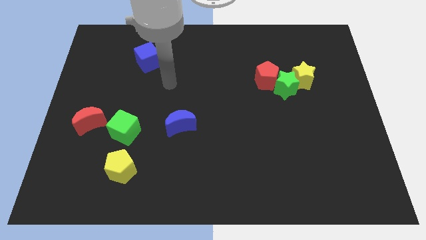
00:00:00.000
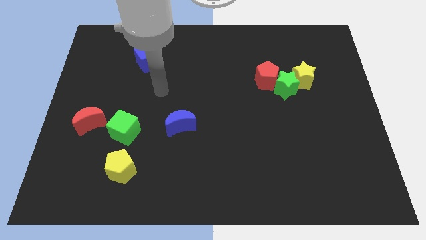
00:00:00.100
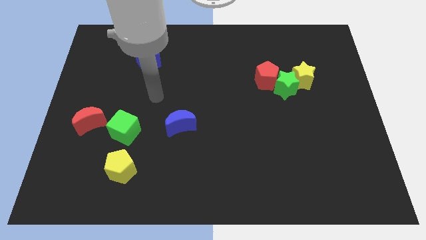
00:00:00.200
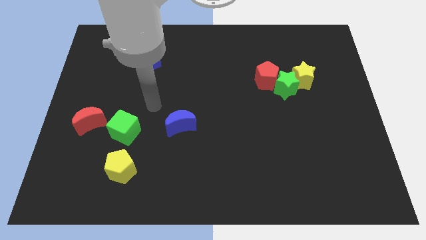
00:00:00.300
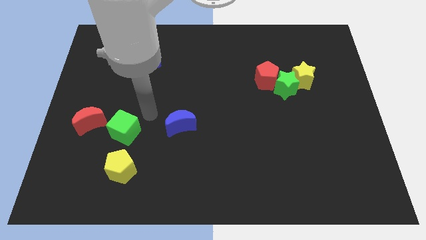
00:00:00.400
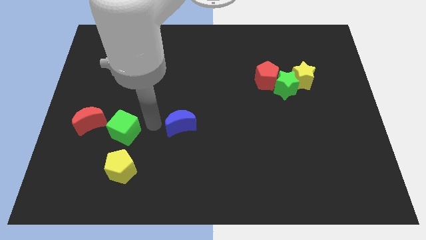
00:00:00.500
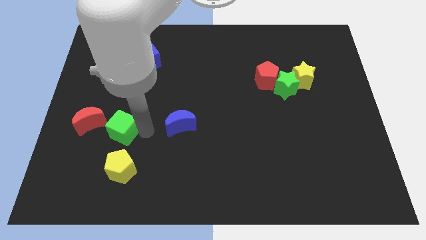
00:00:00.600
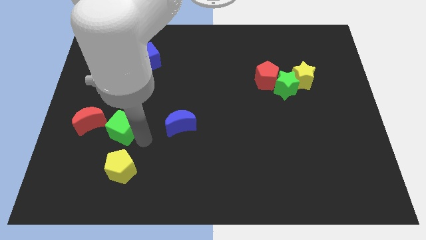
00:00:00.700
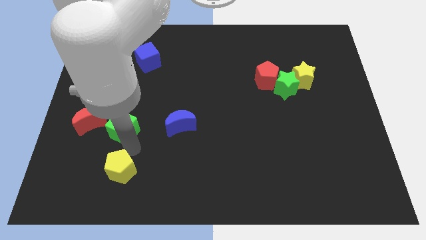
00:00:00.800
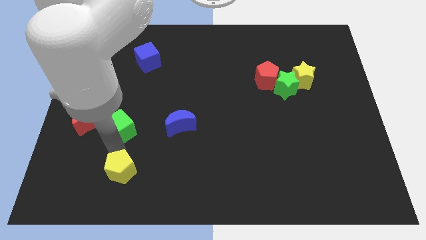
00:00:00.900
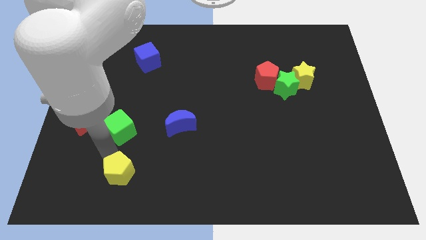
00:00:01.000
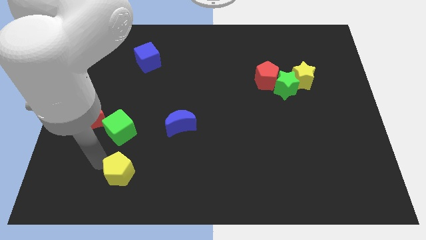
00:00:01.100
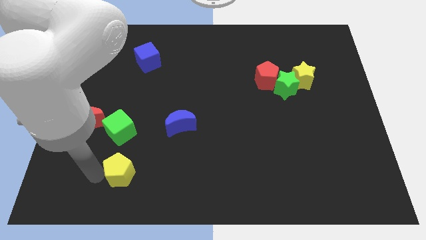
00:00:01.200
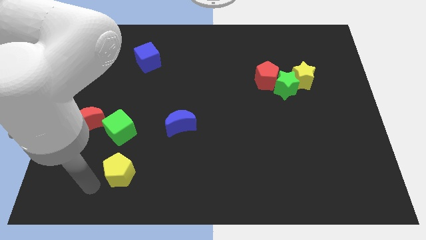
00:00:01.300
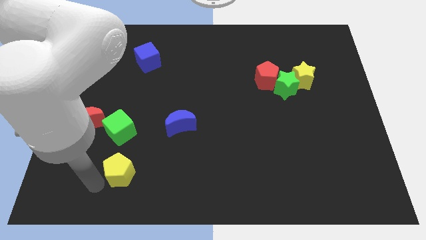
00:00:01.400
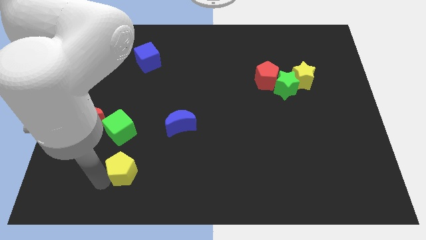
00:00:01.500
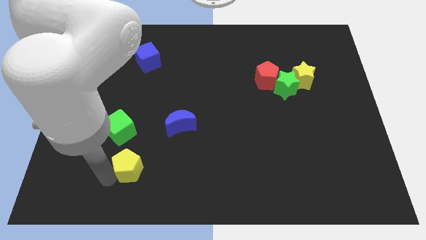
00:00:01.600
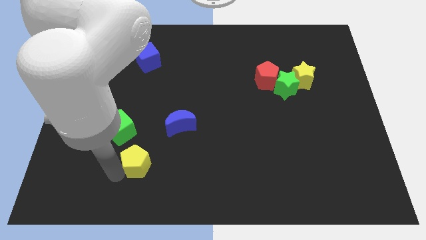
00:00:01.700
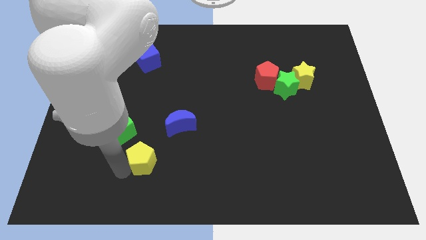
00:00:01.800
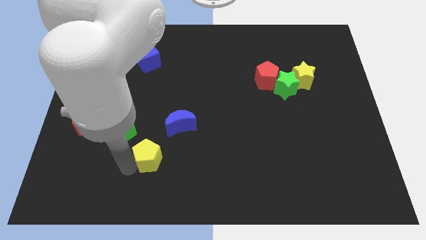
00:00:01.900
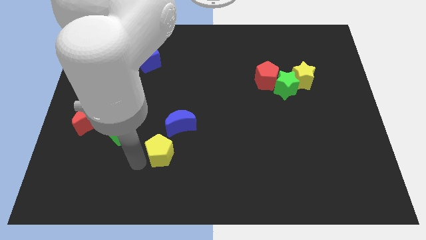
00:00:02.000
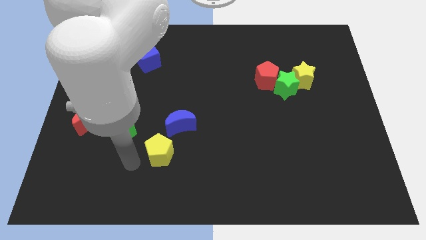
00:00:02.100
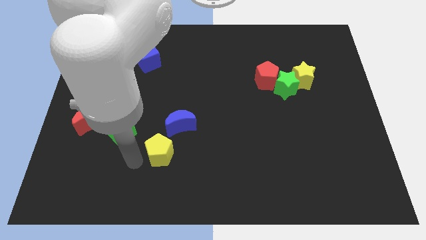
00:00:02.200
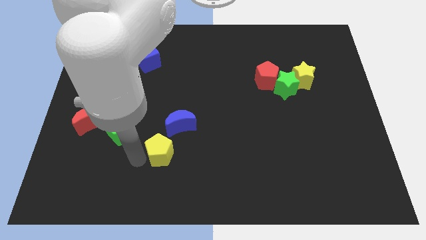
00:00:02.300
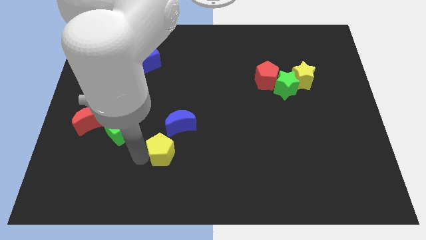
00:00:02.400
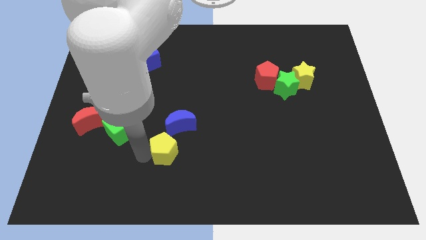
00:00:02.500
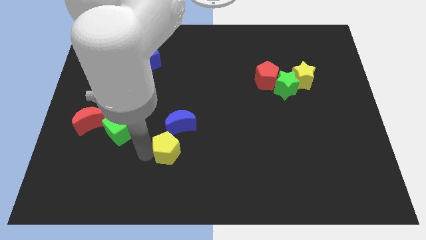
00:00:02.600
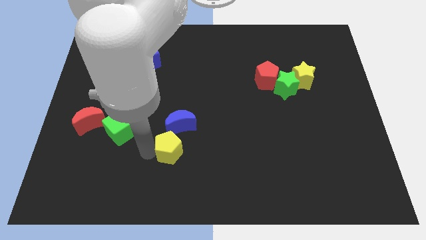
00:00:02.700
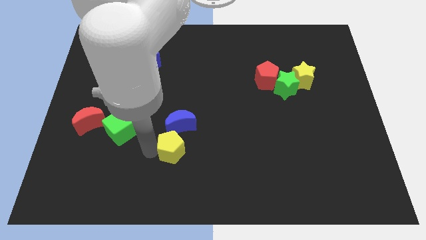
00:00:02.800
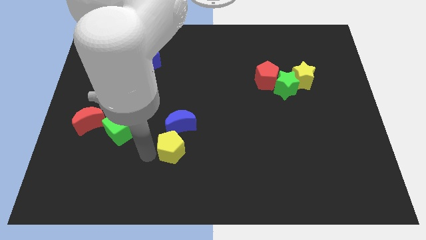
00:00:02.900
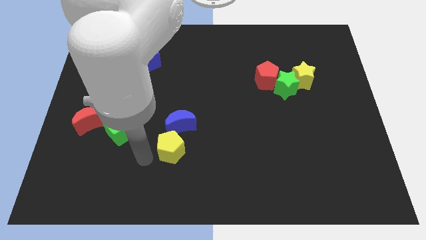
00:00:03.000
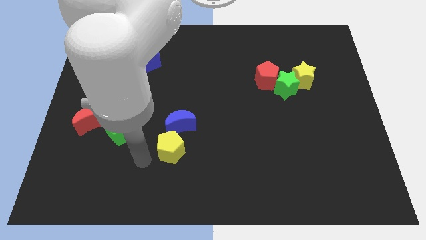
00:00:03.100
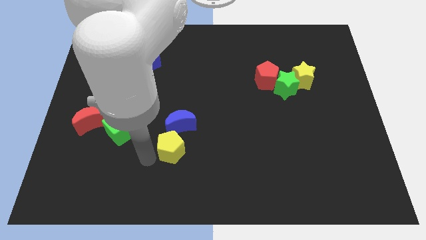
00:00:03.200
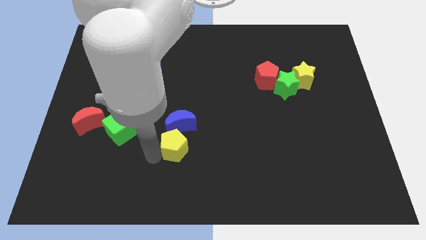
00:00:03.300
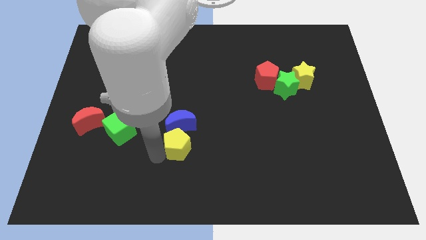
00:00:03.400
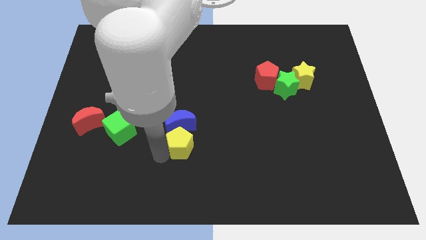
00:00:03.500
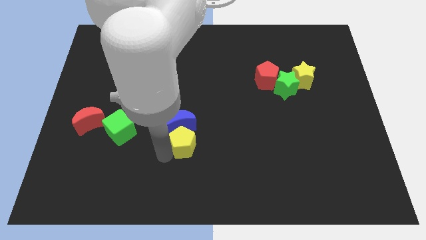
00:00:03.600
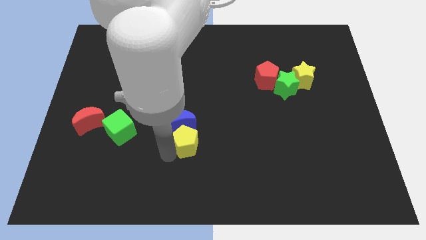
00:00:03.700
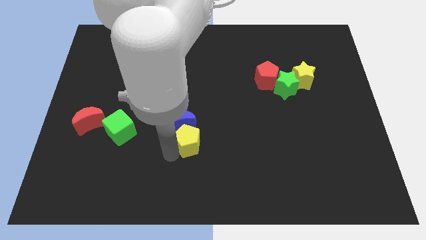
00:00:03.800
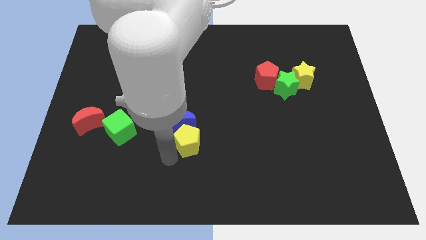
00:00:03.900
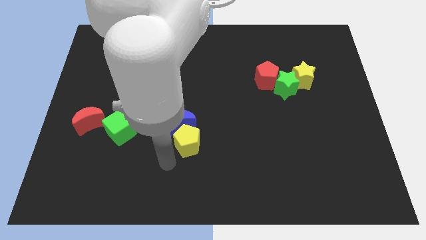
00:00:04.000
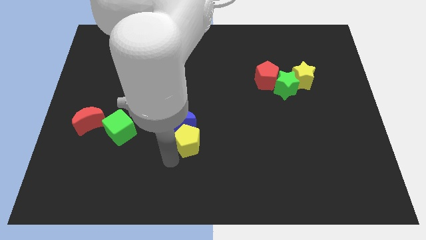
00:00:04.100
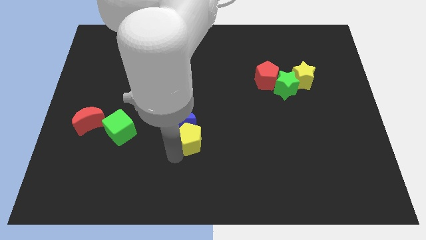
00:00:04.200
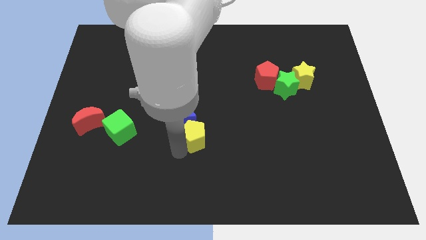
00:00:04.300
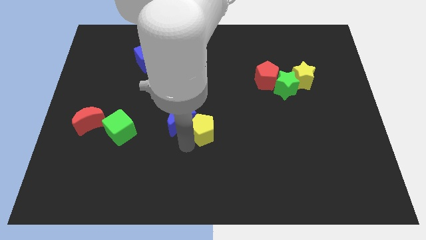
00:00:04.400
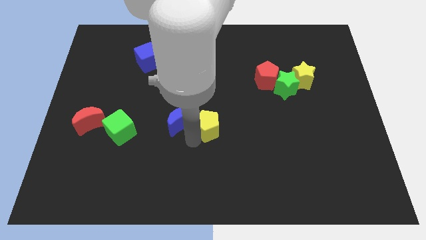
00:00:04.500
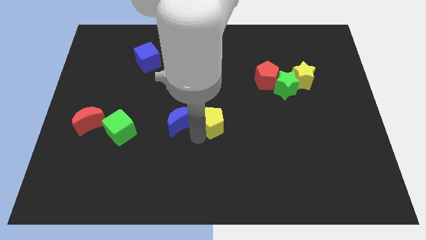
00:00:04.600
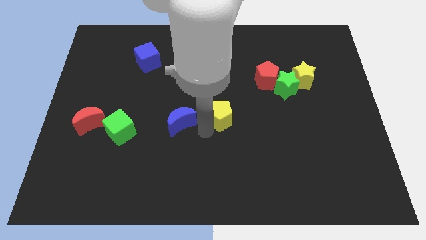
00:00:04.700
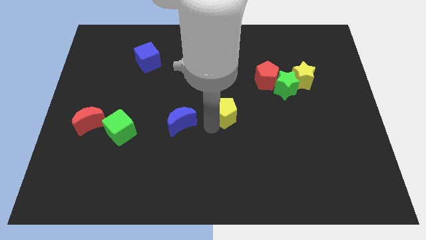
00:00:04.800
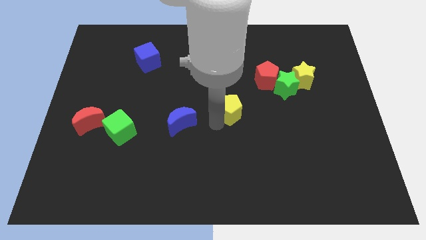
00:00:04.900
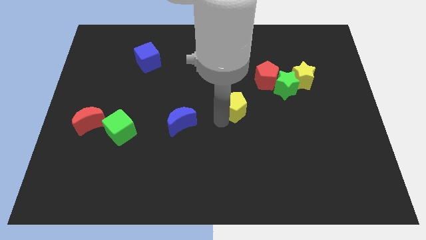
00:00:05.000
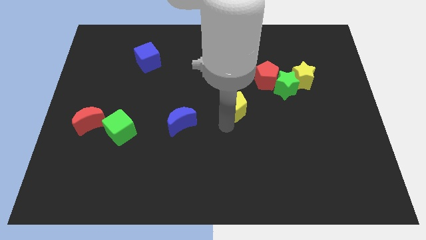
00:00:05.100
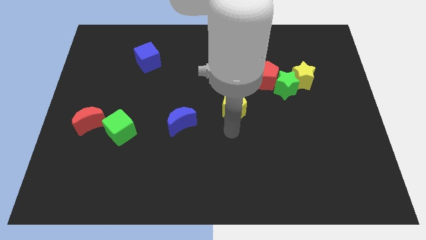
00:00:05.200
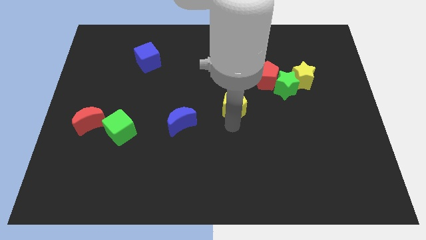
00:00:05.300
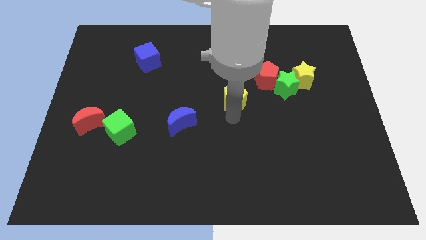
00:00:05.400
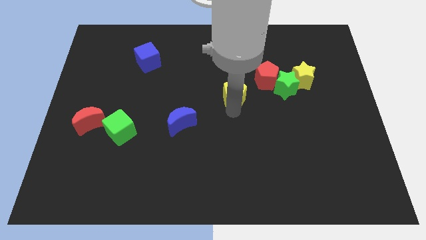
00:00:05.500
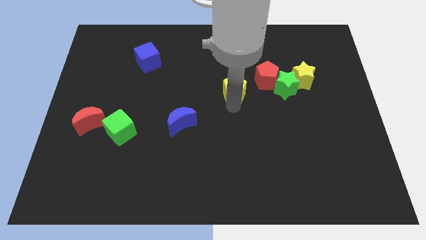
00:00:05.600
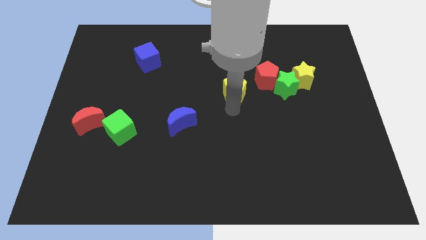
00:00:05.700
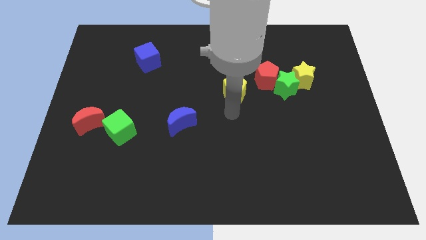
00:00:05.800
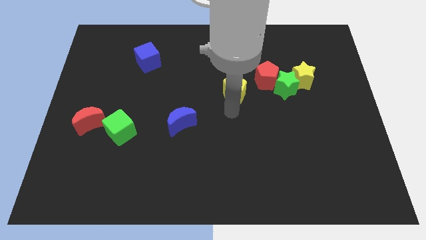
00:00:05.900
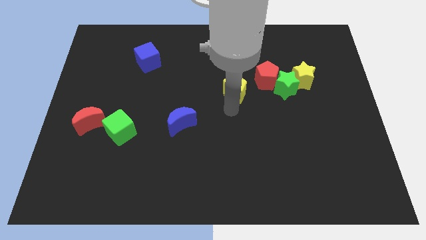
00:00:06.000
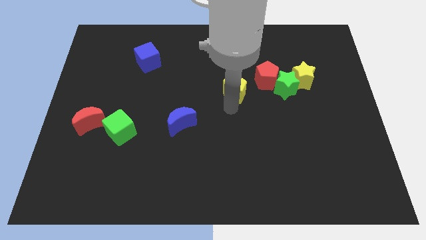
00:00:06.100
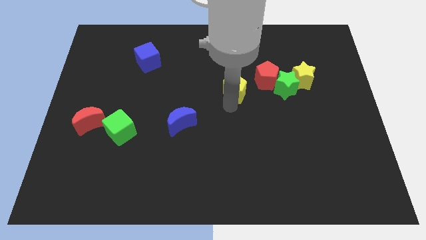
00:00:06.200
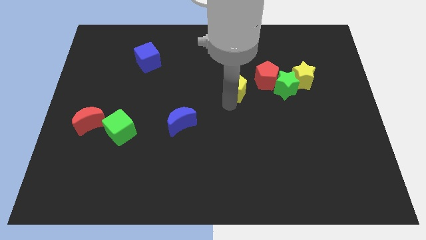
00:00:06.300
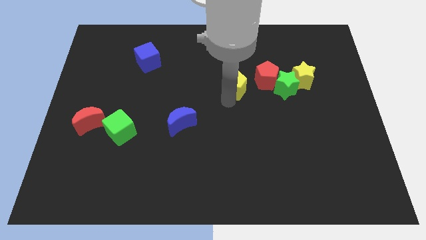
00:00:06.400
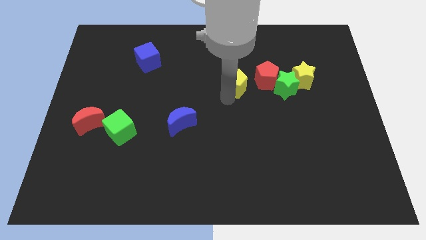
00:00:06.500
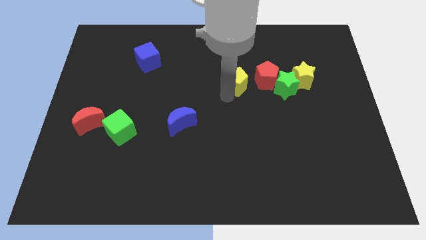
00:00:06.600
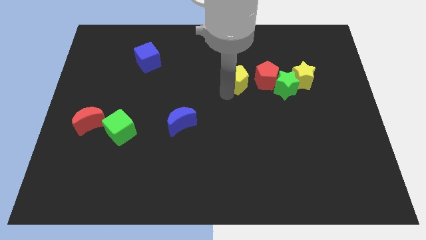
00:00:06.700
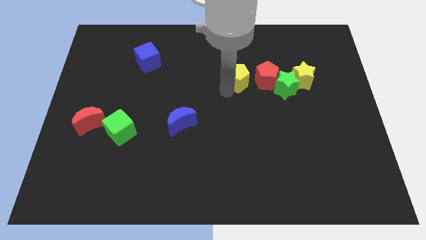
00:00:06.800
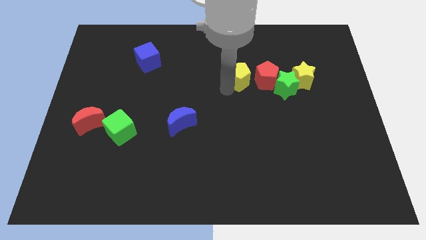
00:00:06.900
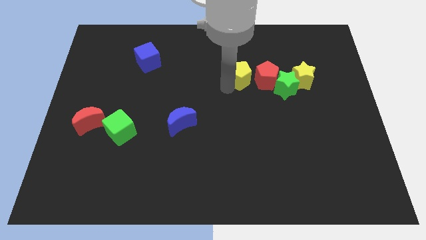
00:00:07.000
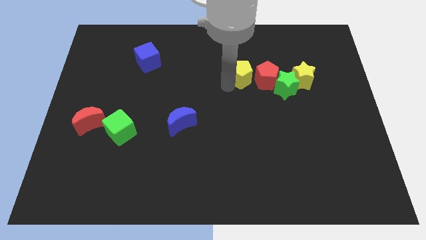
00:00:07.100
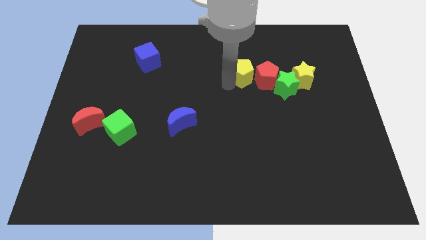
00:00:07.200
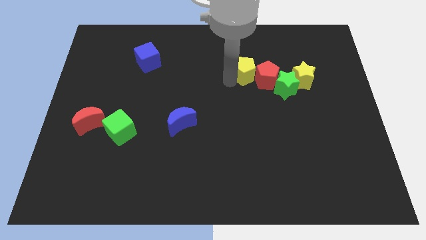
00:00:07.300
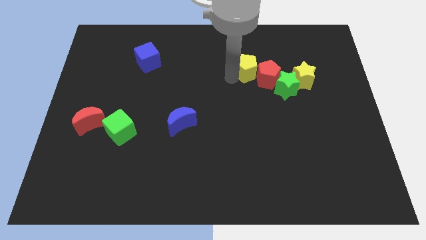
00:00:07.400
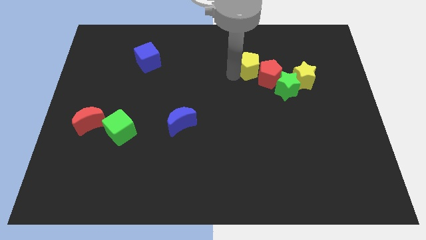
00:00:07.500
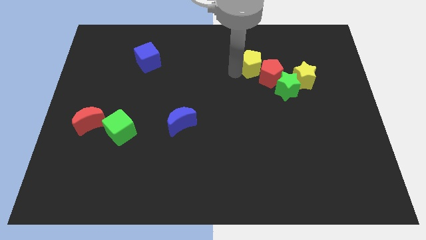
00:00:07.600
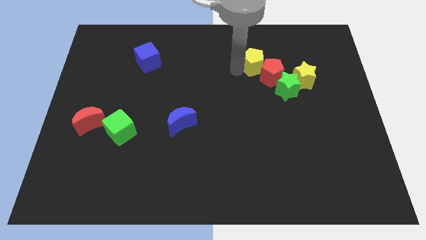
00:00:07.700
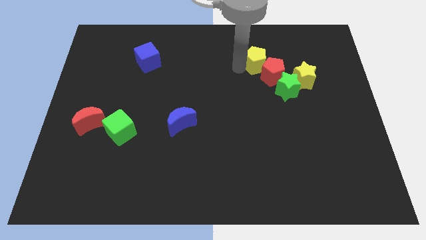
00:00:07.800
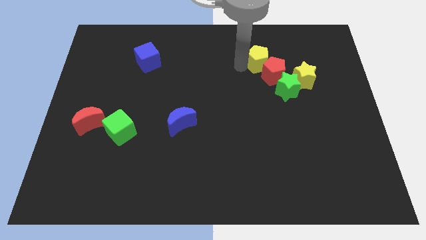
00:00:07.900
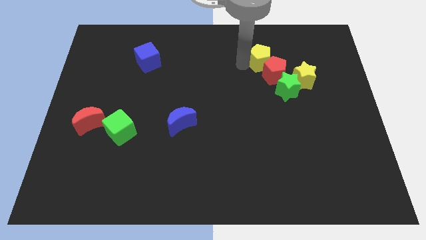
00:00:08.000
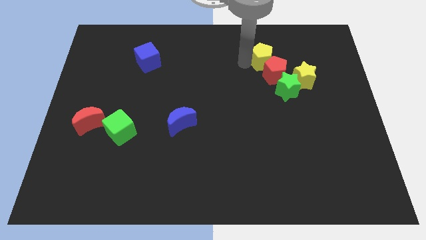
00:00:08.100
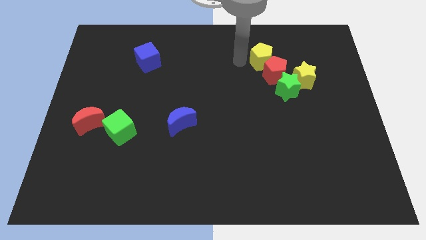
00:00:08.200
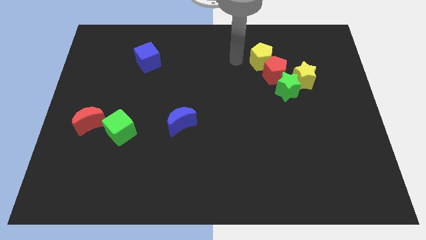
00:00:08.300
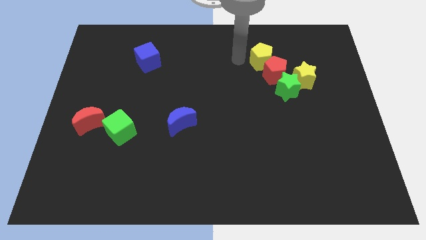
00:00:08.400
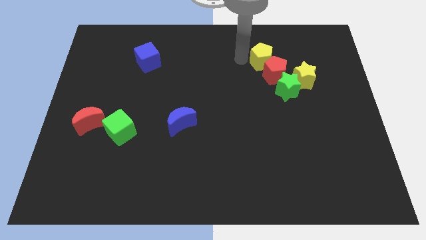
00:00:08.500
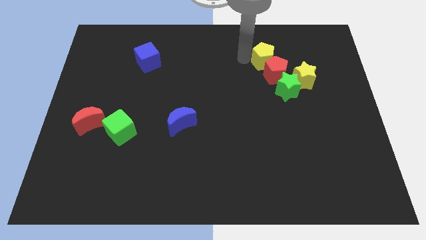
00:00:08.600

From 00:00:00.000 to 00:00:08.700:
put the yellow pentagon above the green star
